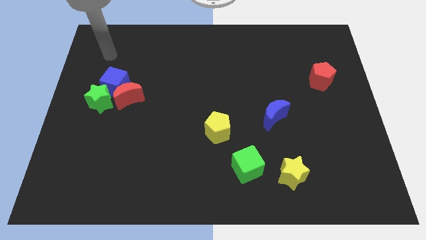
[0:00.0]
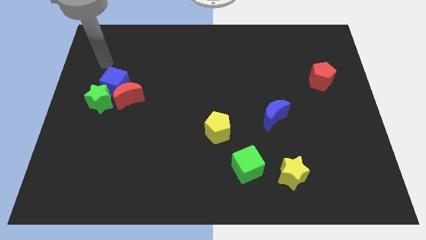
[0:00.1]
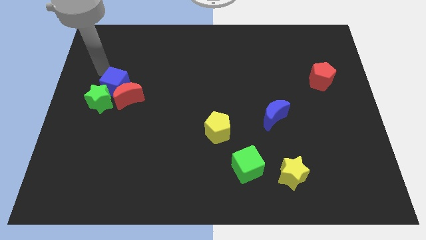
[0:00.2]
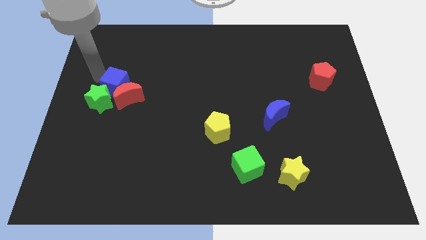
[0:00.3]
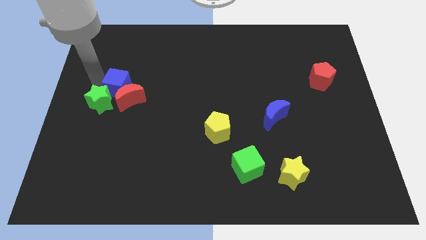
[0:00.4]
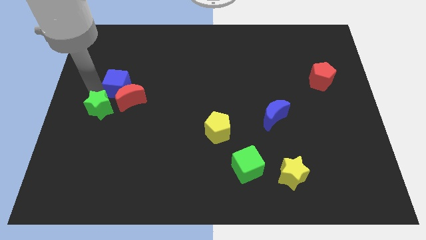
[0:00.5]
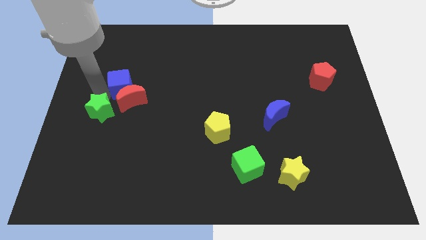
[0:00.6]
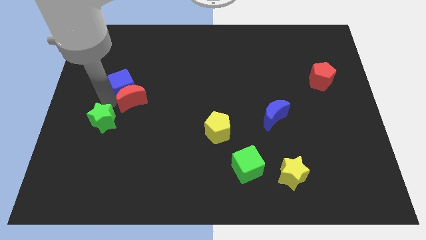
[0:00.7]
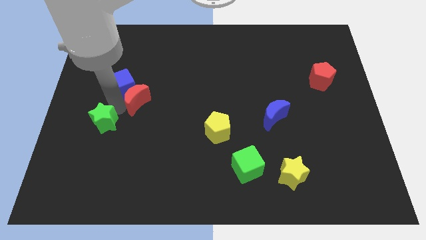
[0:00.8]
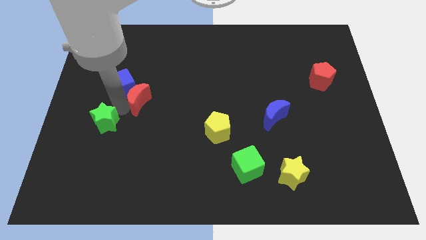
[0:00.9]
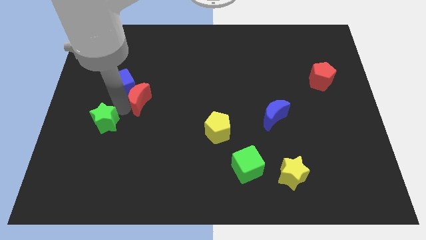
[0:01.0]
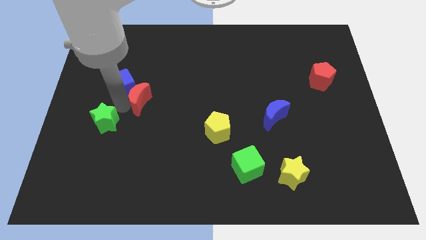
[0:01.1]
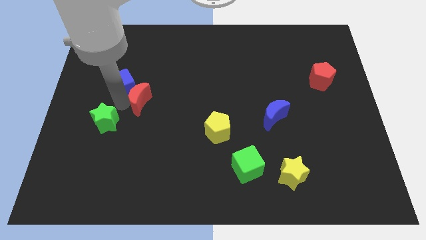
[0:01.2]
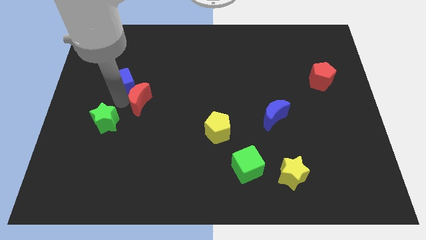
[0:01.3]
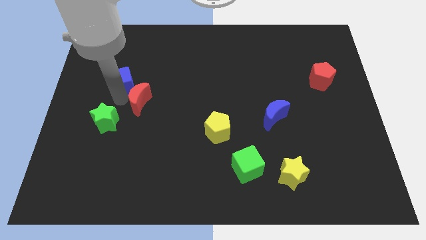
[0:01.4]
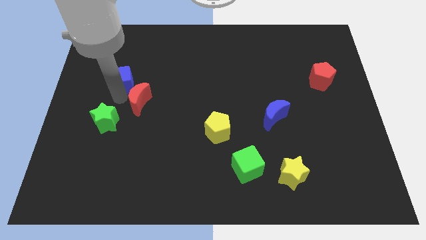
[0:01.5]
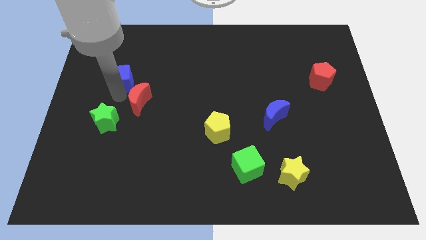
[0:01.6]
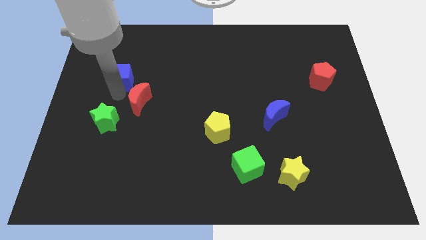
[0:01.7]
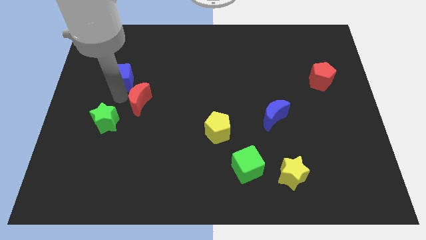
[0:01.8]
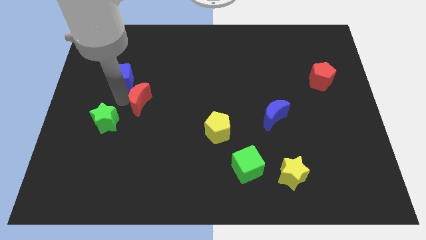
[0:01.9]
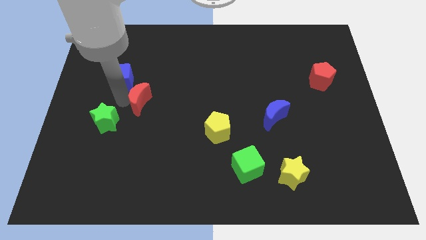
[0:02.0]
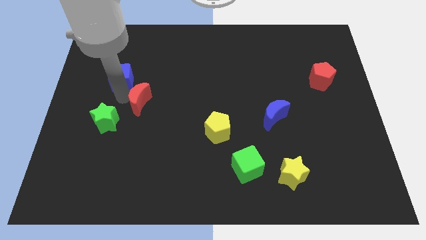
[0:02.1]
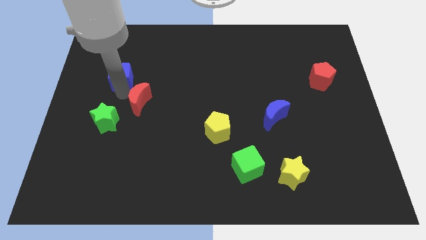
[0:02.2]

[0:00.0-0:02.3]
pull the blue cube apart from the red moon and green star

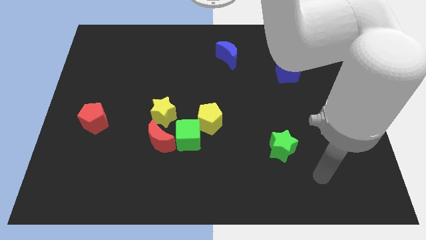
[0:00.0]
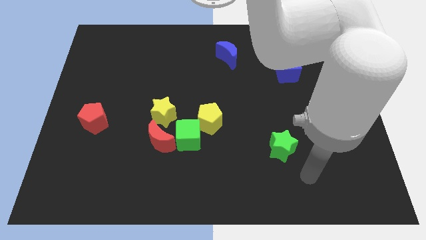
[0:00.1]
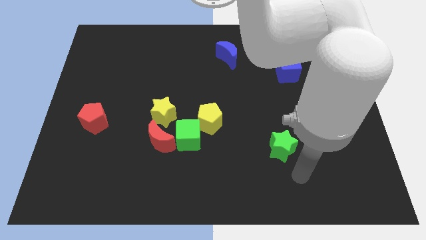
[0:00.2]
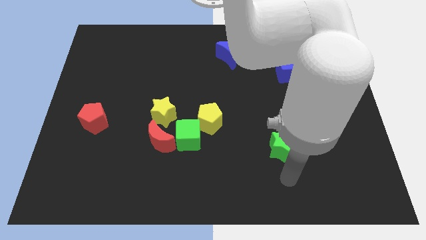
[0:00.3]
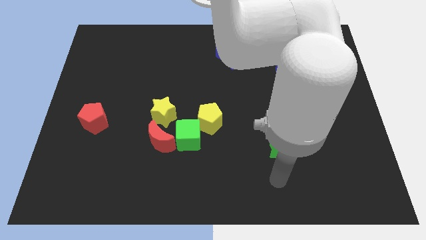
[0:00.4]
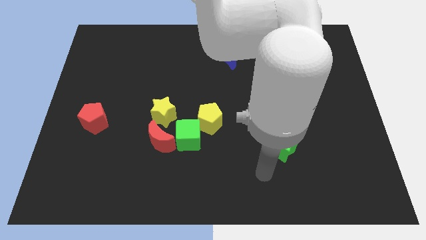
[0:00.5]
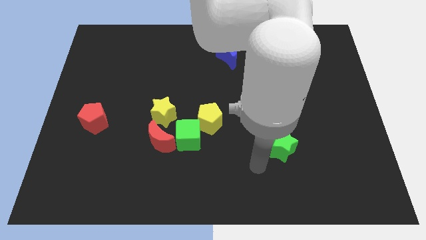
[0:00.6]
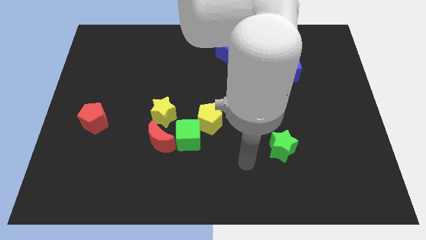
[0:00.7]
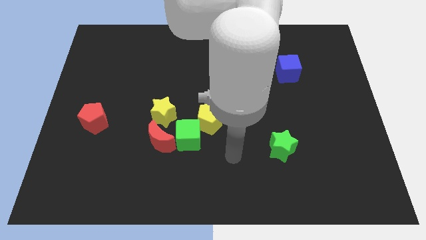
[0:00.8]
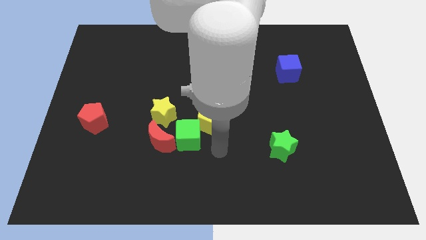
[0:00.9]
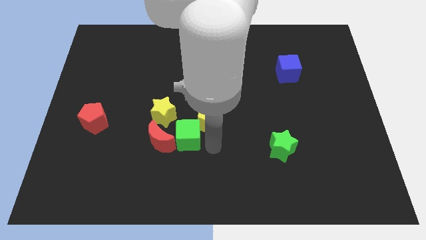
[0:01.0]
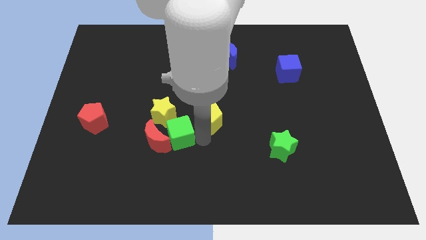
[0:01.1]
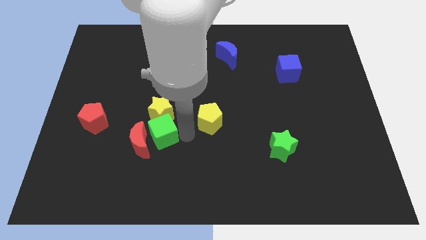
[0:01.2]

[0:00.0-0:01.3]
pull the yellow pentagon apart from the green cube

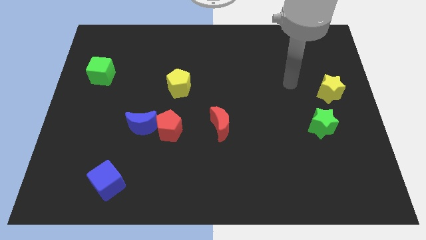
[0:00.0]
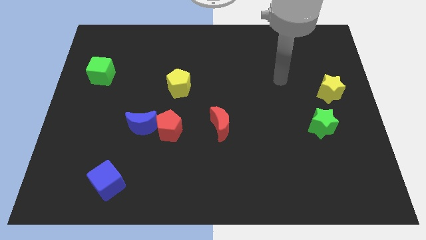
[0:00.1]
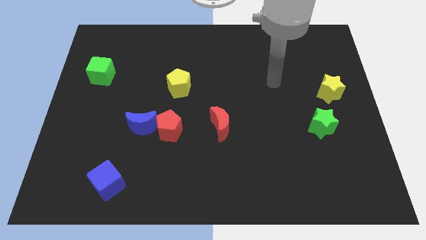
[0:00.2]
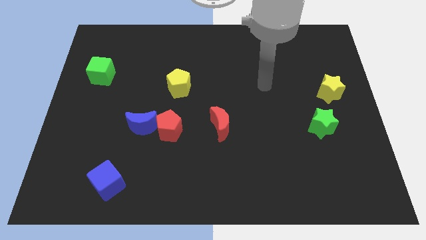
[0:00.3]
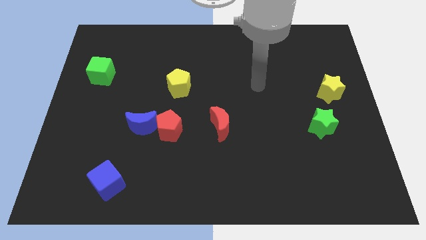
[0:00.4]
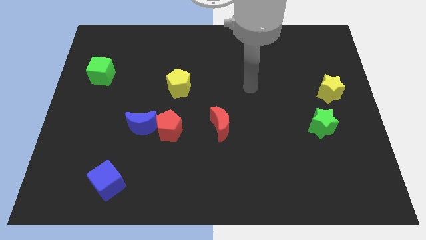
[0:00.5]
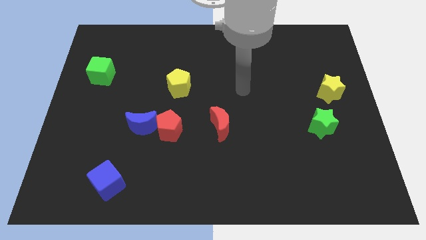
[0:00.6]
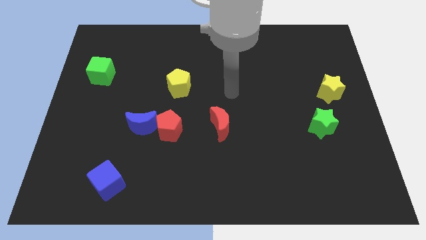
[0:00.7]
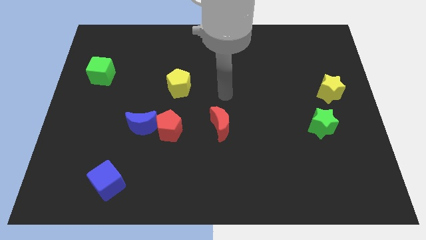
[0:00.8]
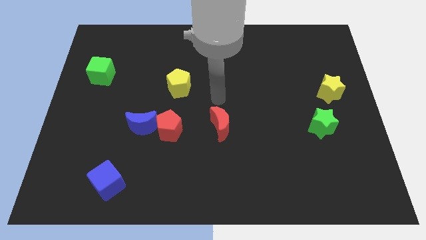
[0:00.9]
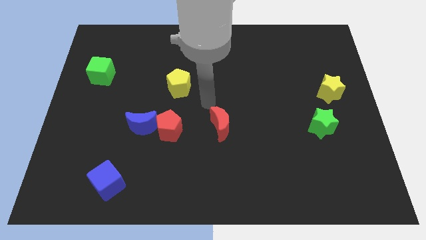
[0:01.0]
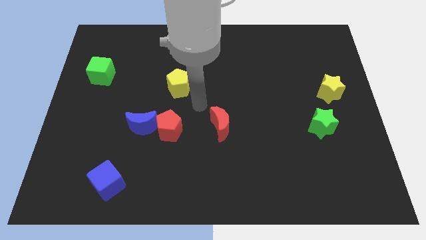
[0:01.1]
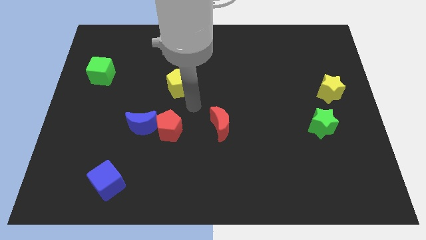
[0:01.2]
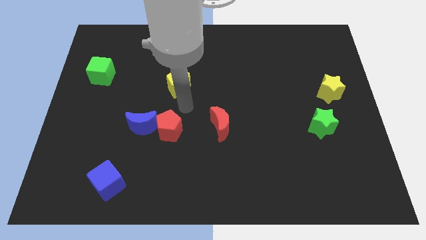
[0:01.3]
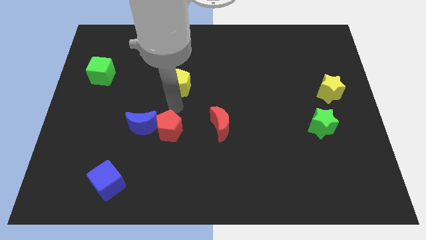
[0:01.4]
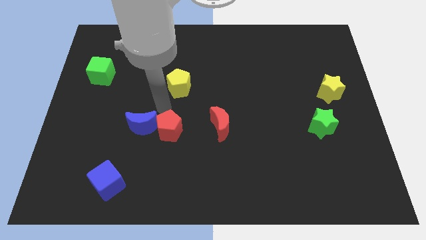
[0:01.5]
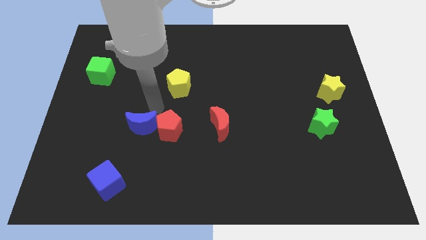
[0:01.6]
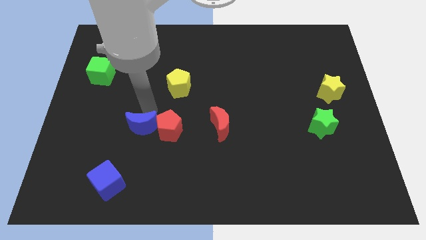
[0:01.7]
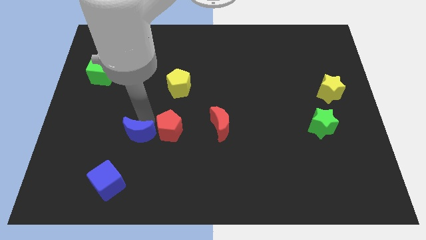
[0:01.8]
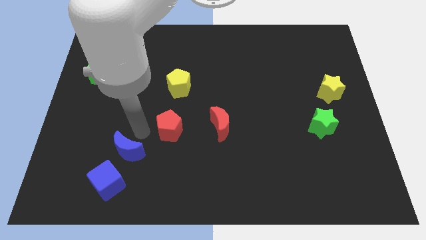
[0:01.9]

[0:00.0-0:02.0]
separate the red pentagon from the blue moon

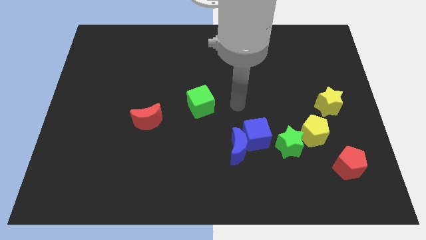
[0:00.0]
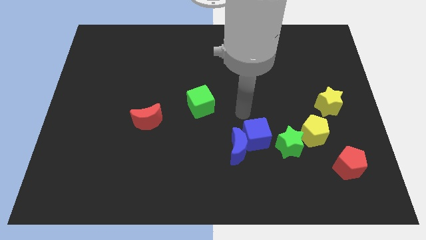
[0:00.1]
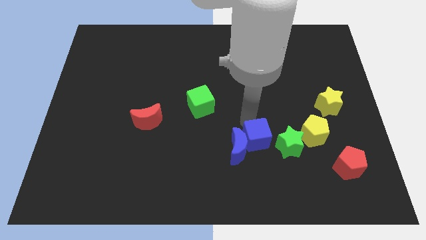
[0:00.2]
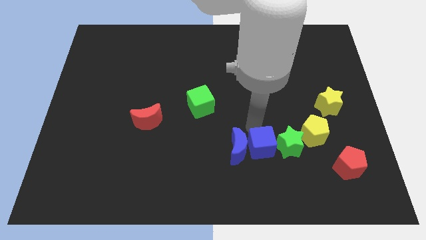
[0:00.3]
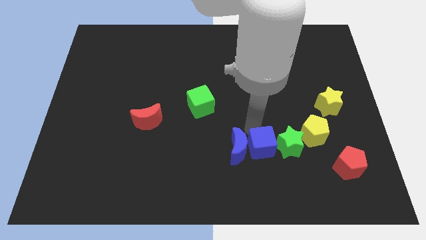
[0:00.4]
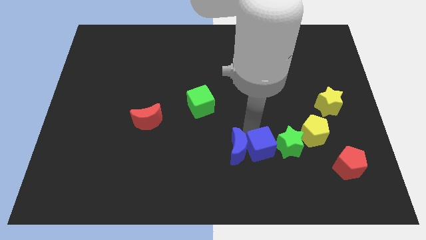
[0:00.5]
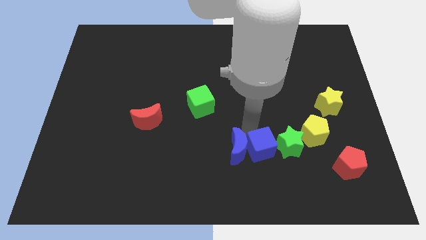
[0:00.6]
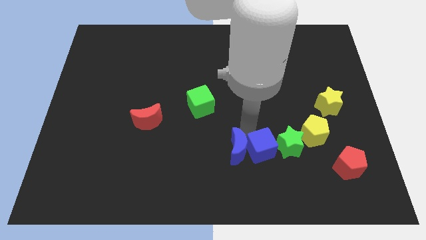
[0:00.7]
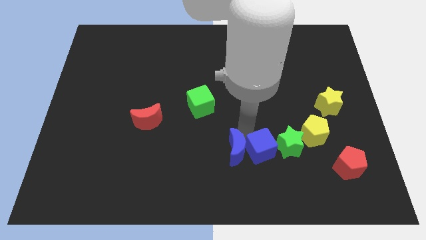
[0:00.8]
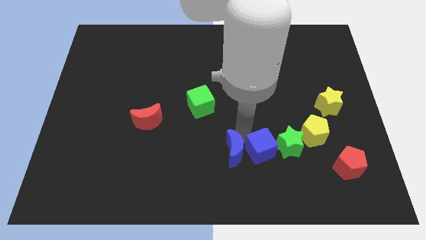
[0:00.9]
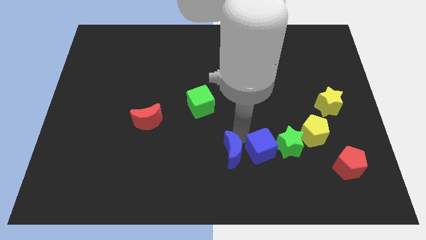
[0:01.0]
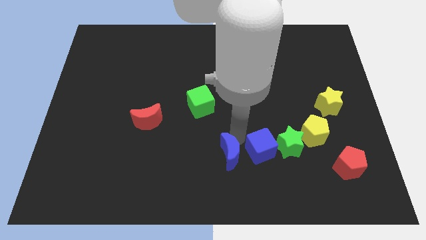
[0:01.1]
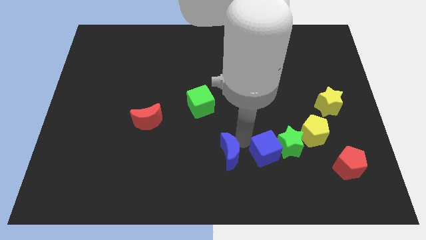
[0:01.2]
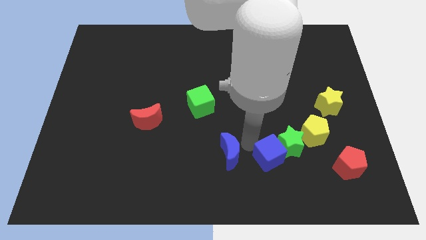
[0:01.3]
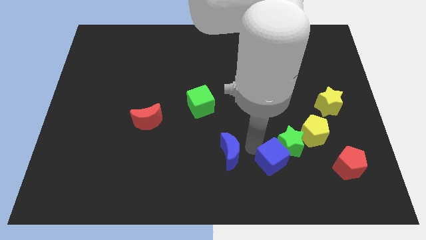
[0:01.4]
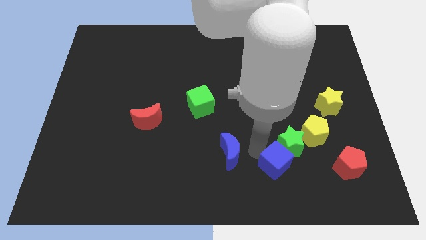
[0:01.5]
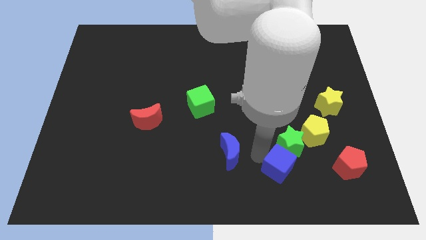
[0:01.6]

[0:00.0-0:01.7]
move the blue moon away from the blue cube

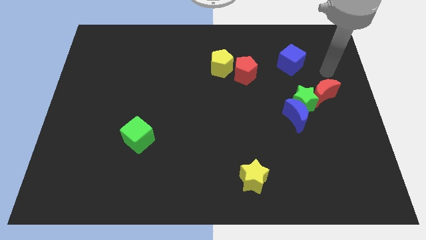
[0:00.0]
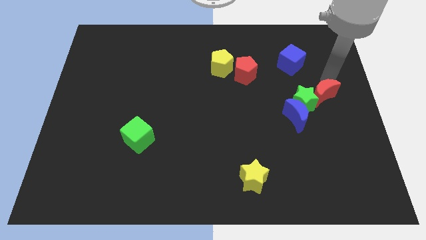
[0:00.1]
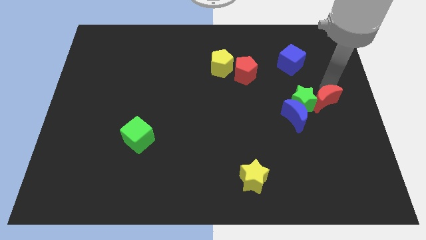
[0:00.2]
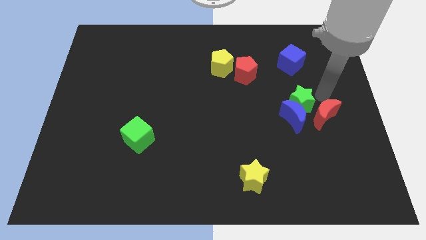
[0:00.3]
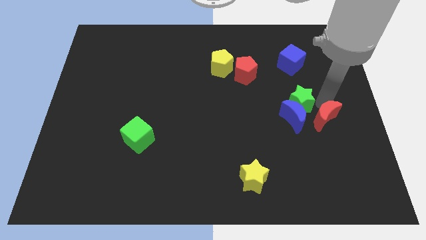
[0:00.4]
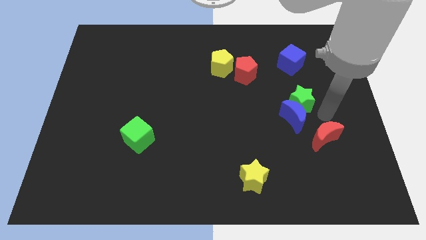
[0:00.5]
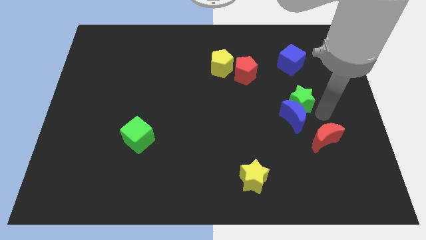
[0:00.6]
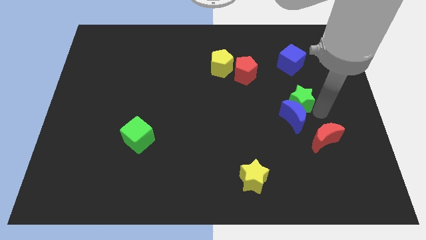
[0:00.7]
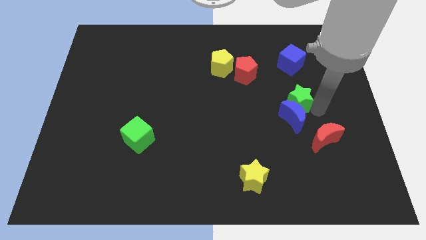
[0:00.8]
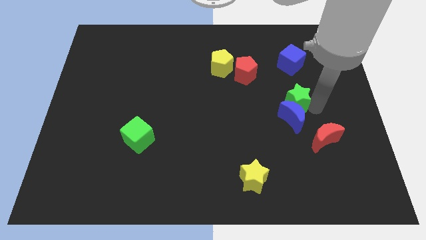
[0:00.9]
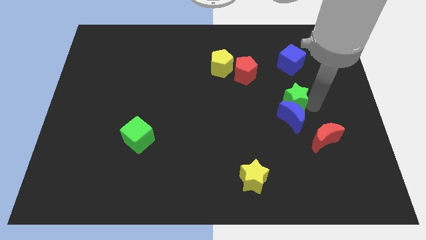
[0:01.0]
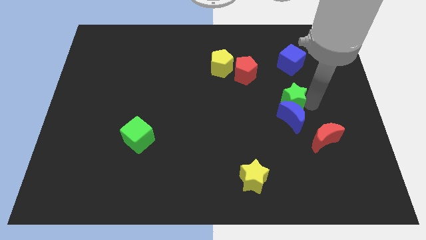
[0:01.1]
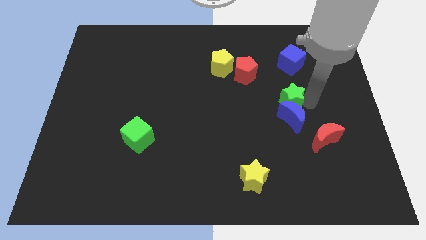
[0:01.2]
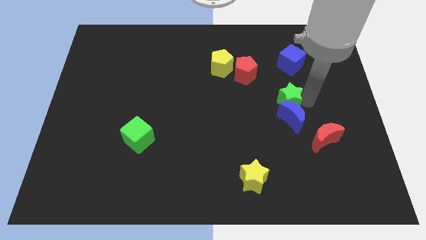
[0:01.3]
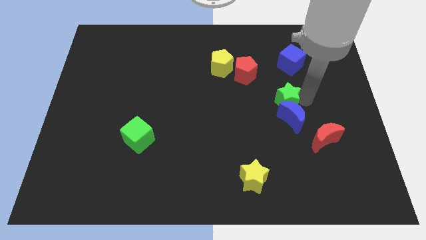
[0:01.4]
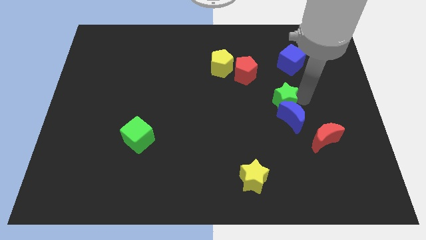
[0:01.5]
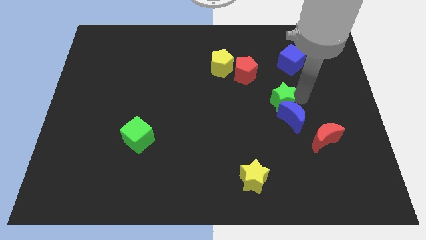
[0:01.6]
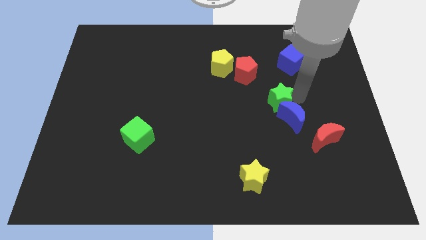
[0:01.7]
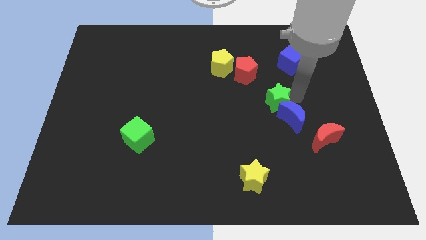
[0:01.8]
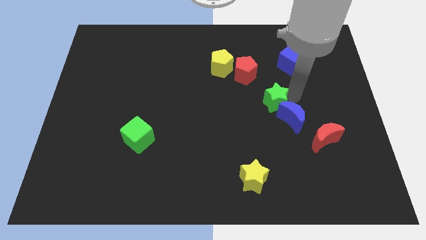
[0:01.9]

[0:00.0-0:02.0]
pull the green star apart from the blue moon and red moon

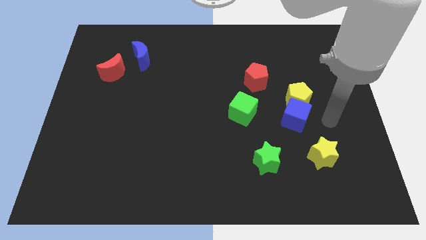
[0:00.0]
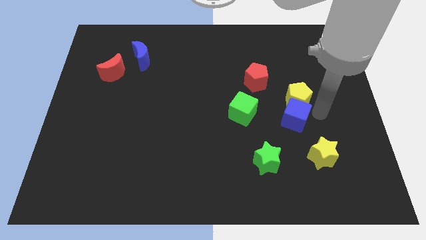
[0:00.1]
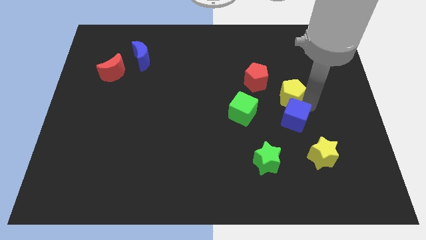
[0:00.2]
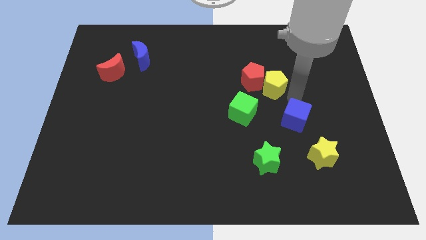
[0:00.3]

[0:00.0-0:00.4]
move the blue cube away from the yellow pentagon
